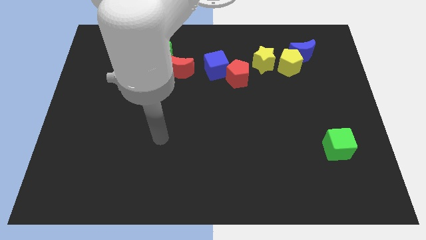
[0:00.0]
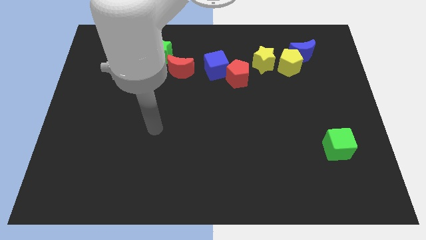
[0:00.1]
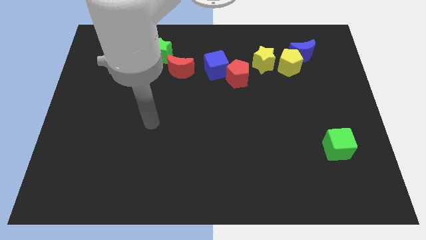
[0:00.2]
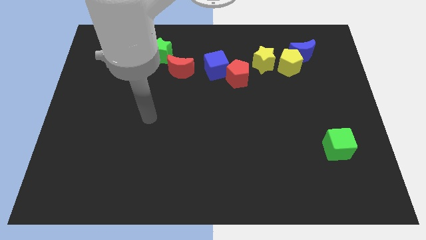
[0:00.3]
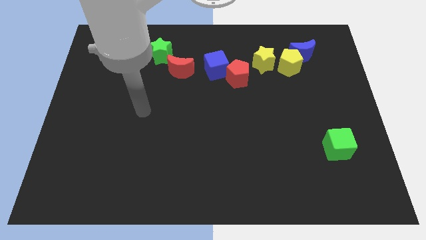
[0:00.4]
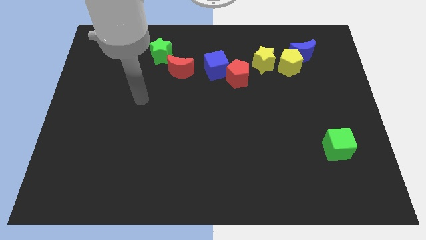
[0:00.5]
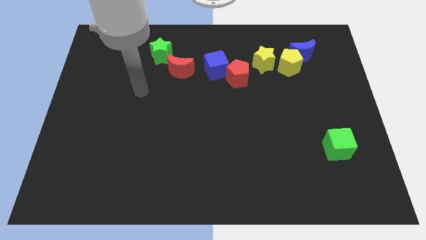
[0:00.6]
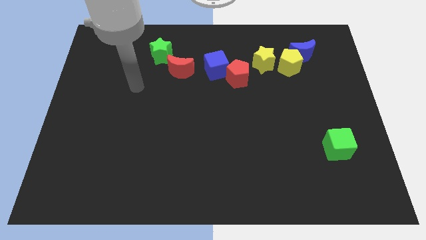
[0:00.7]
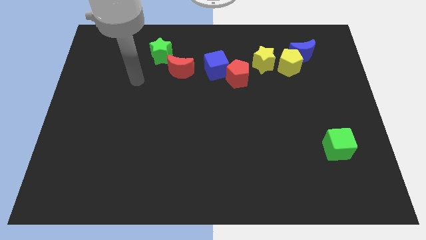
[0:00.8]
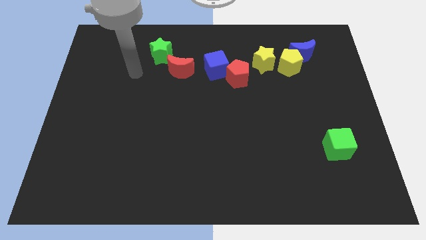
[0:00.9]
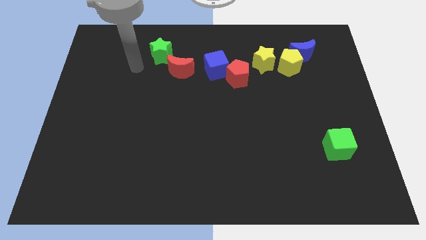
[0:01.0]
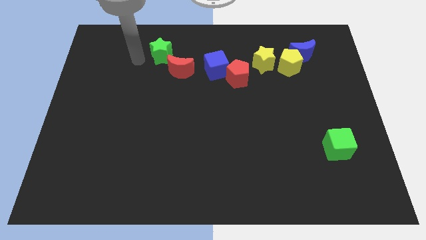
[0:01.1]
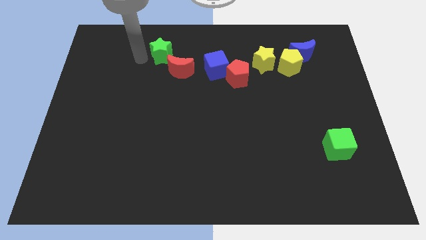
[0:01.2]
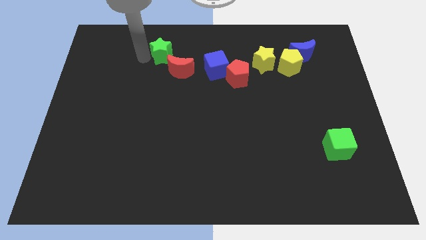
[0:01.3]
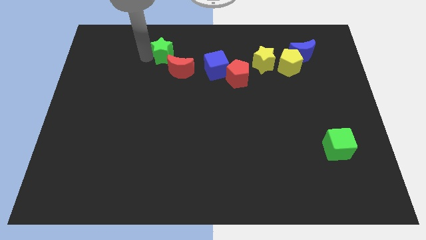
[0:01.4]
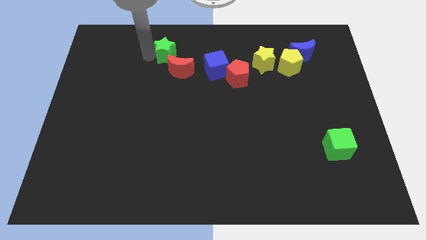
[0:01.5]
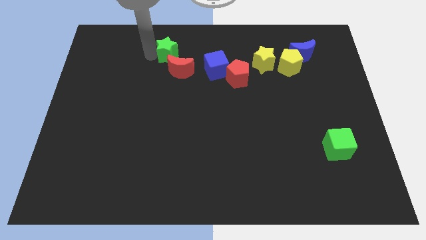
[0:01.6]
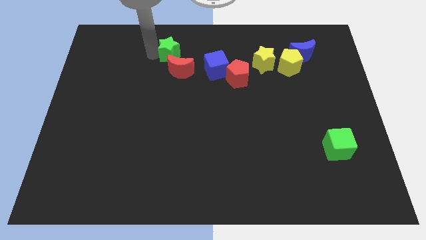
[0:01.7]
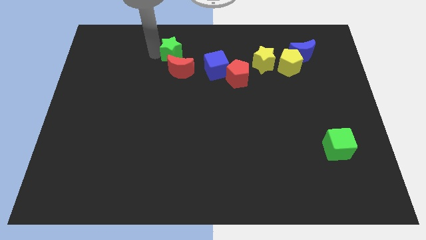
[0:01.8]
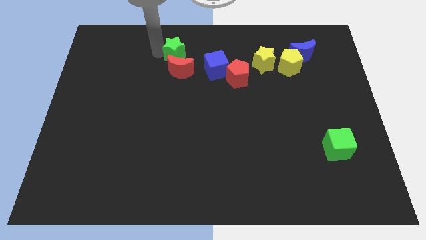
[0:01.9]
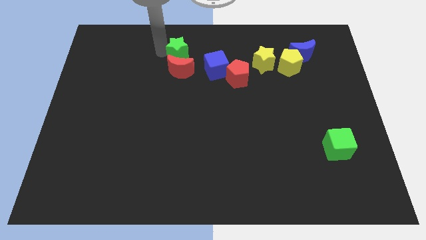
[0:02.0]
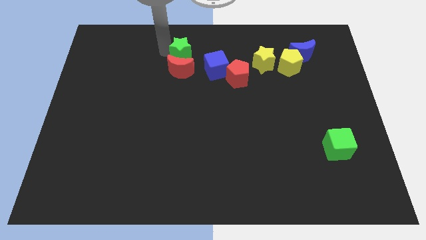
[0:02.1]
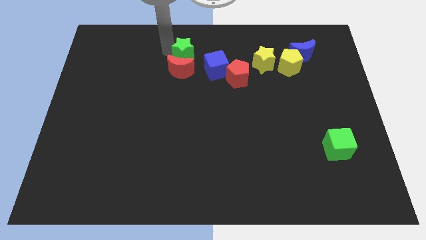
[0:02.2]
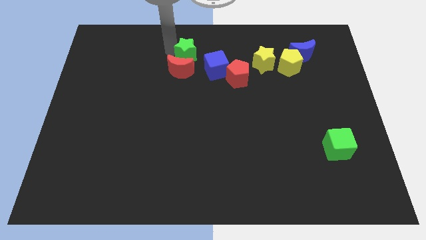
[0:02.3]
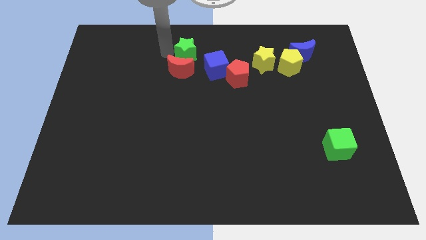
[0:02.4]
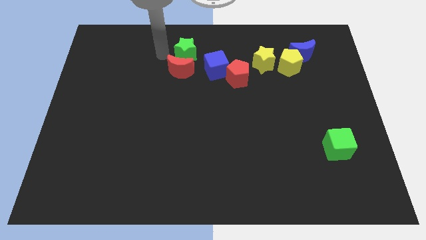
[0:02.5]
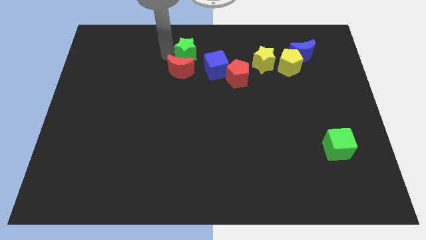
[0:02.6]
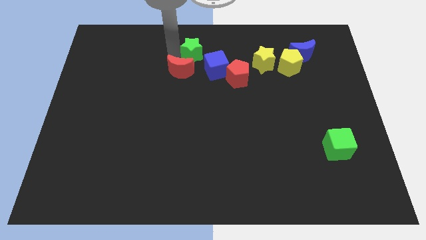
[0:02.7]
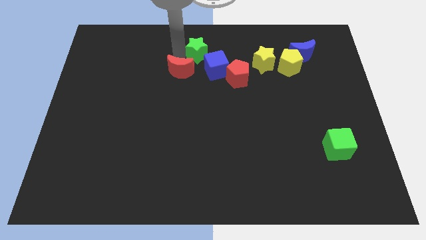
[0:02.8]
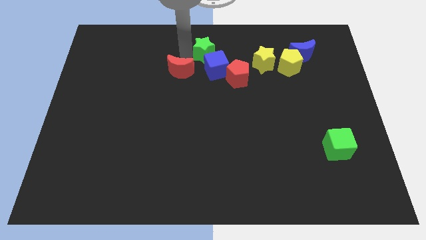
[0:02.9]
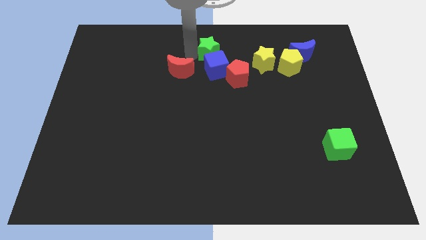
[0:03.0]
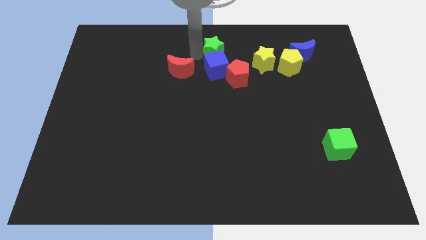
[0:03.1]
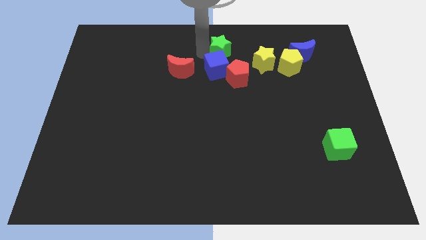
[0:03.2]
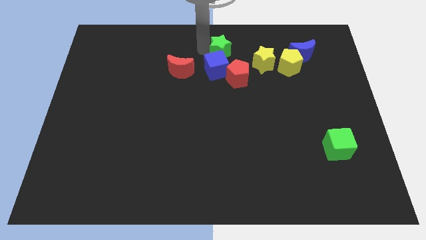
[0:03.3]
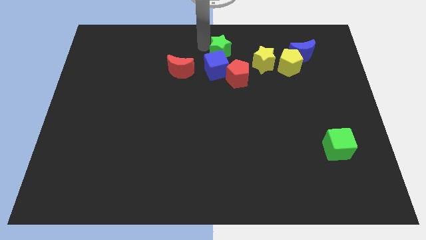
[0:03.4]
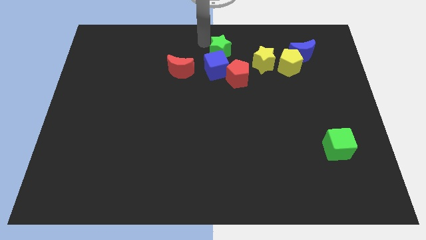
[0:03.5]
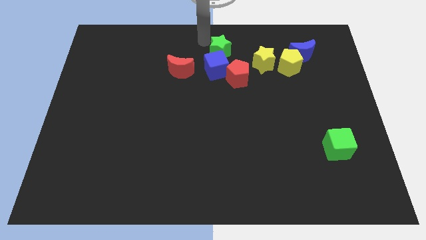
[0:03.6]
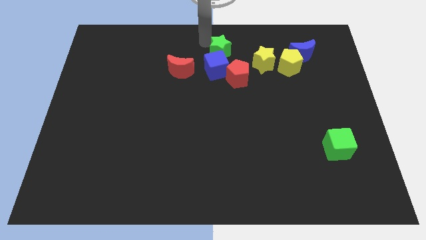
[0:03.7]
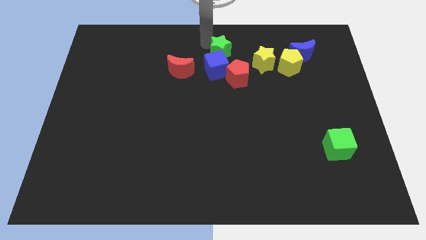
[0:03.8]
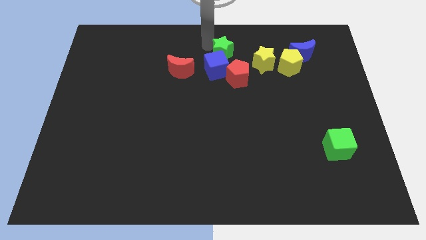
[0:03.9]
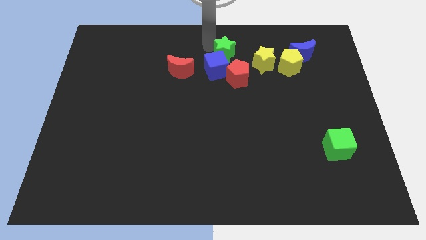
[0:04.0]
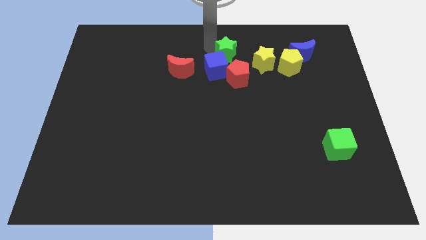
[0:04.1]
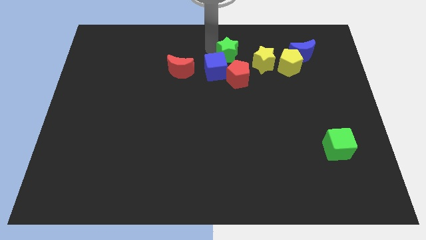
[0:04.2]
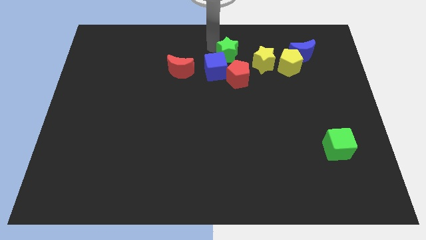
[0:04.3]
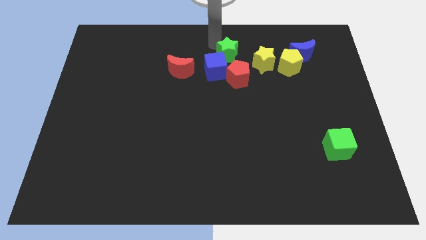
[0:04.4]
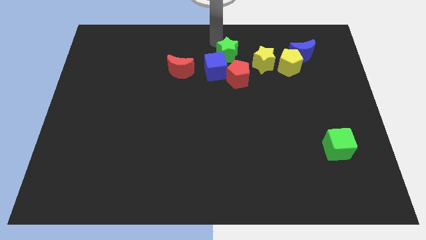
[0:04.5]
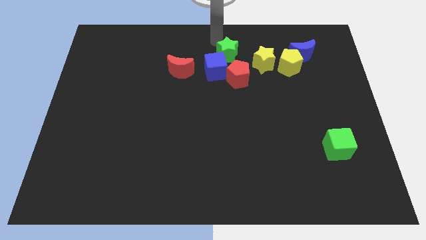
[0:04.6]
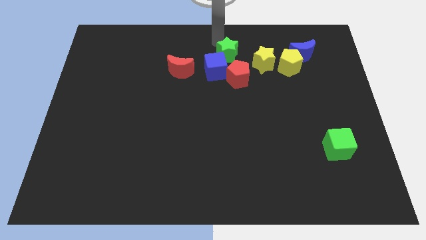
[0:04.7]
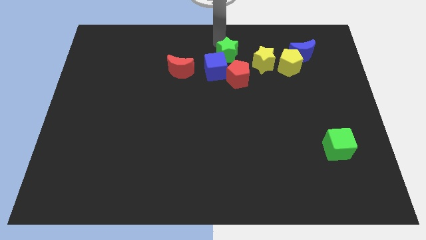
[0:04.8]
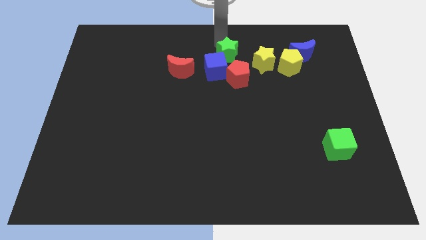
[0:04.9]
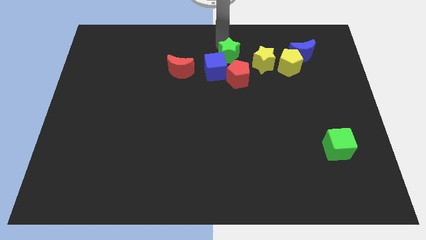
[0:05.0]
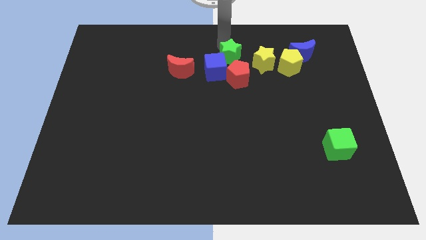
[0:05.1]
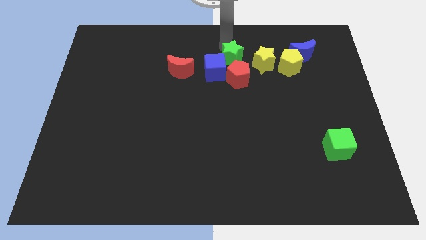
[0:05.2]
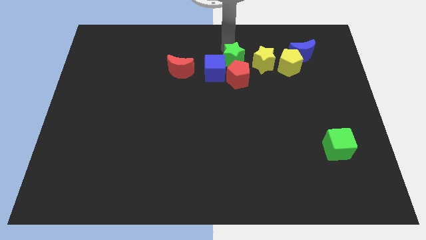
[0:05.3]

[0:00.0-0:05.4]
put the green star close to the red pentagon

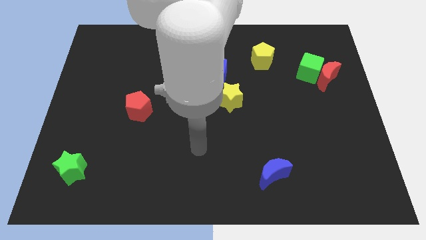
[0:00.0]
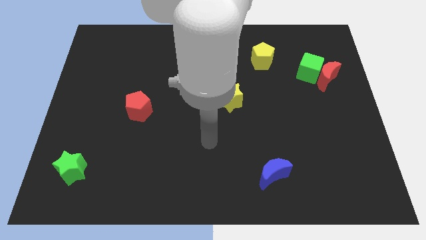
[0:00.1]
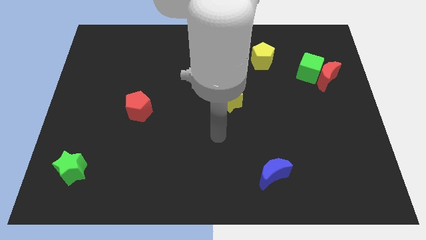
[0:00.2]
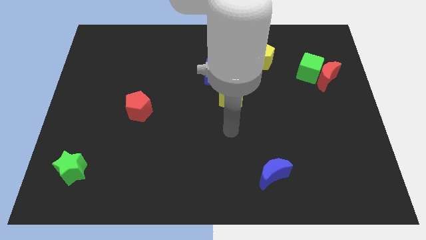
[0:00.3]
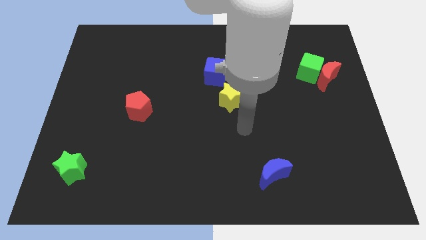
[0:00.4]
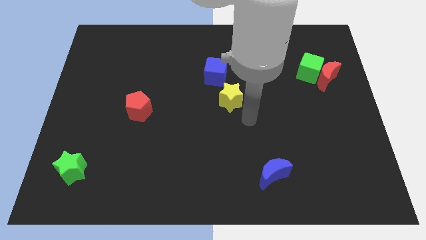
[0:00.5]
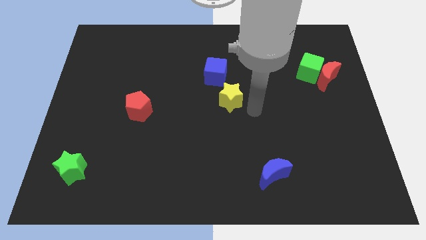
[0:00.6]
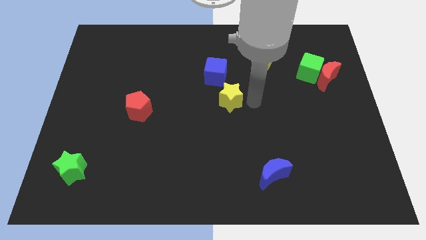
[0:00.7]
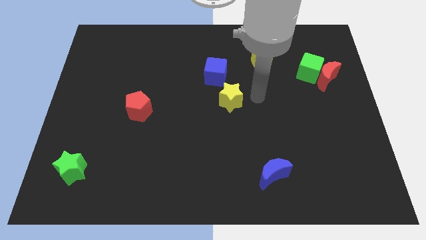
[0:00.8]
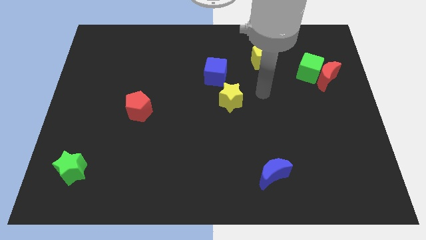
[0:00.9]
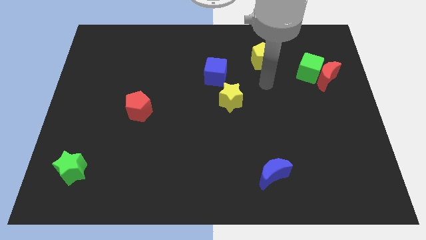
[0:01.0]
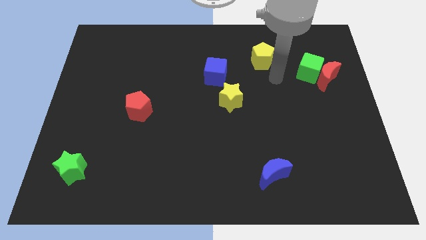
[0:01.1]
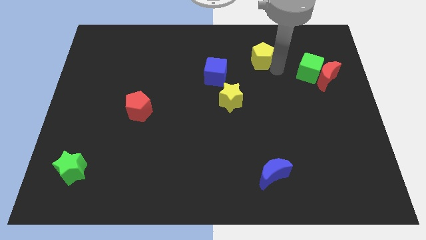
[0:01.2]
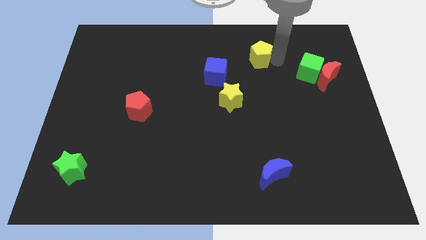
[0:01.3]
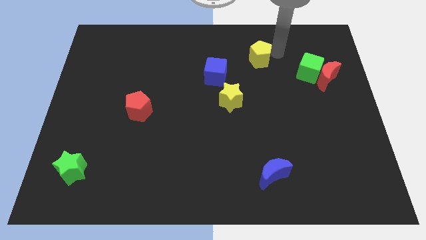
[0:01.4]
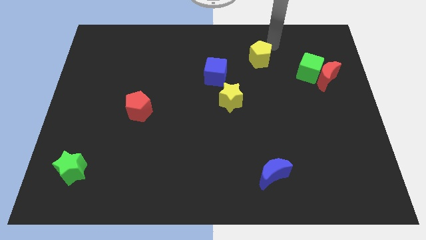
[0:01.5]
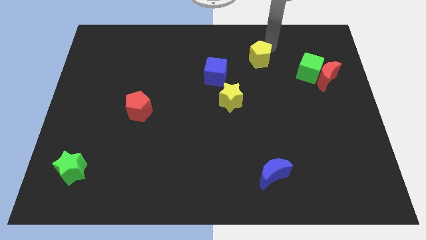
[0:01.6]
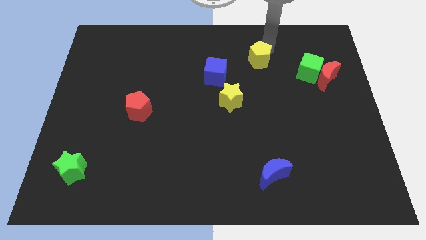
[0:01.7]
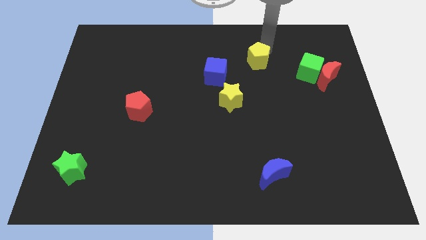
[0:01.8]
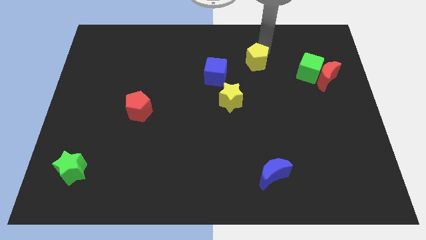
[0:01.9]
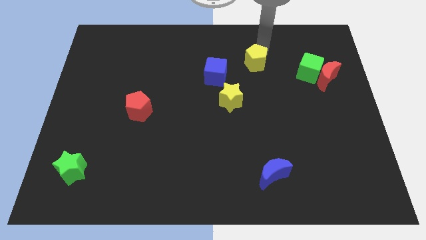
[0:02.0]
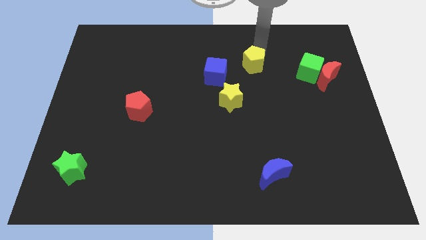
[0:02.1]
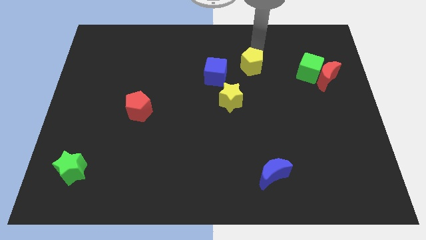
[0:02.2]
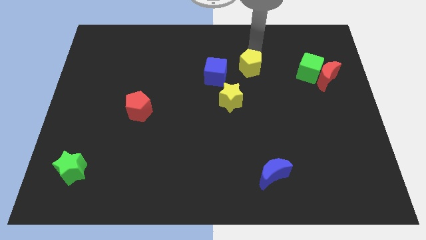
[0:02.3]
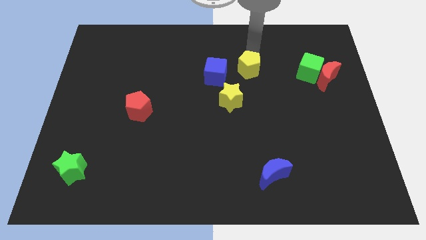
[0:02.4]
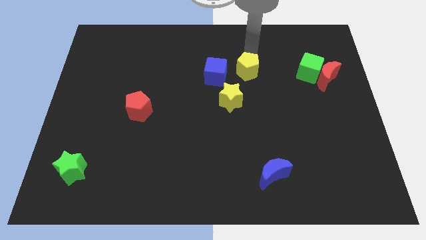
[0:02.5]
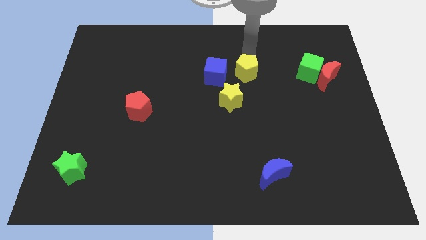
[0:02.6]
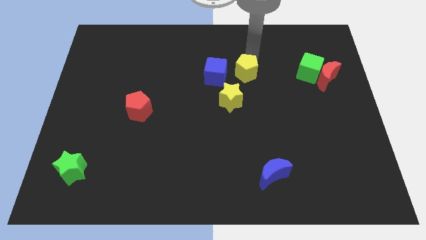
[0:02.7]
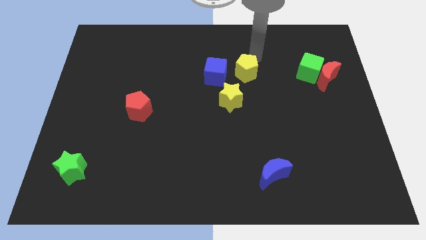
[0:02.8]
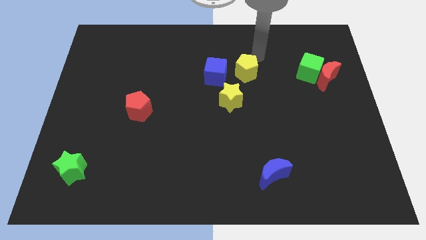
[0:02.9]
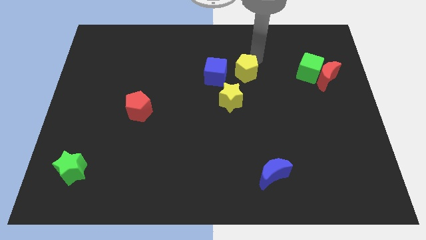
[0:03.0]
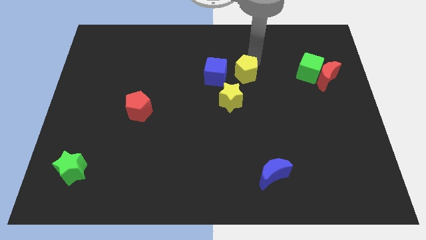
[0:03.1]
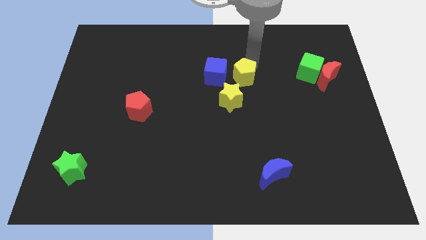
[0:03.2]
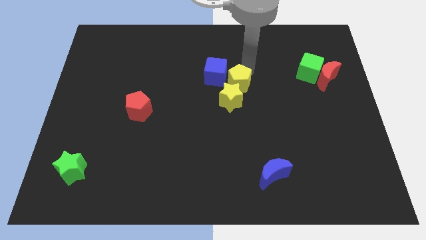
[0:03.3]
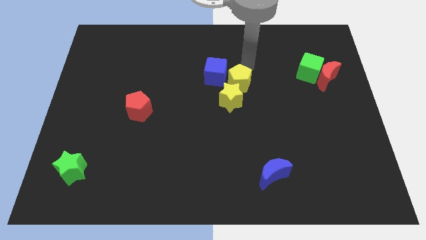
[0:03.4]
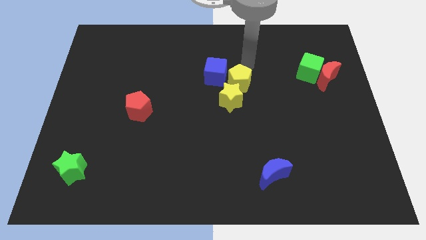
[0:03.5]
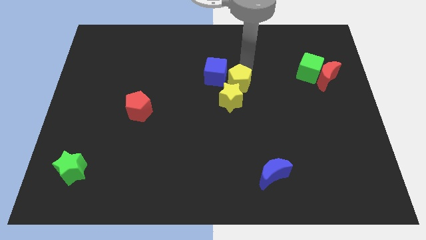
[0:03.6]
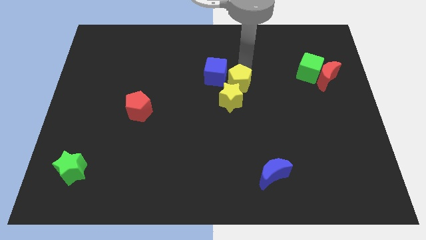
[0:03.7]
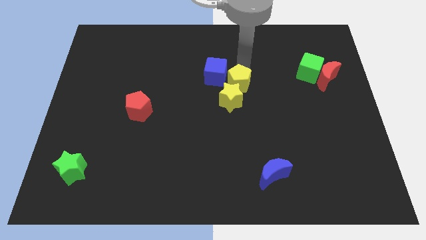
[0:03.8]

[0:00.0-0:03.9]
push the yellow pentagon close to the yellow star
